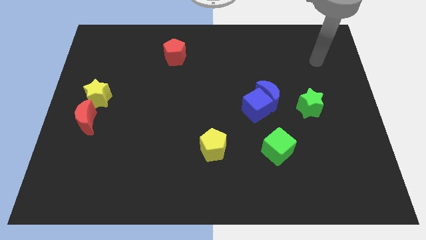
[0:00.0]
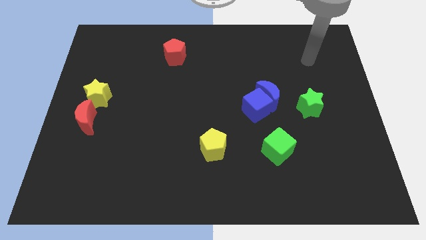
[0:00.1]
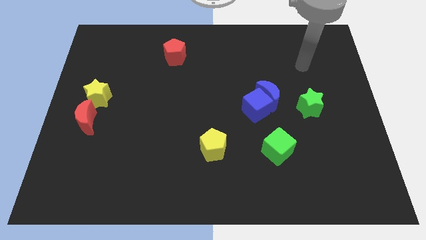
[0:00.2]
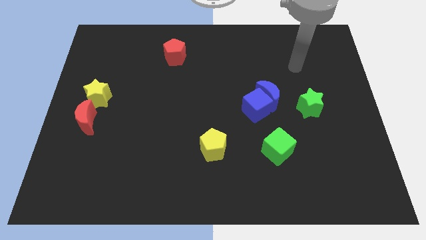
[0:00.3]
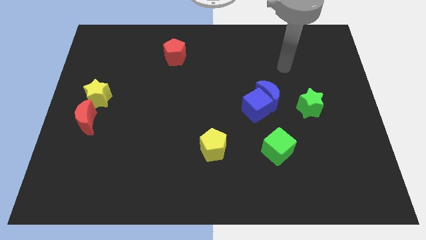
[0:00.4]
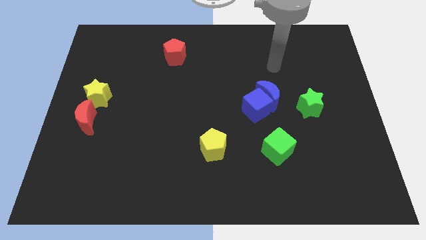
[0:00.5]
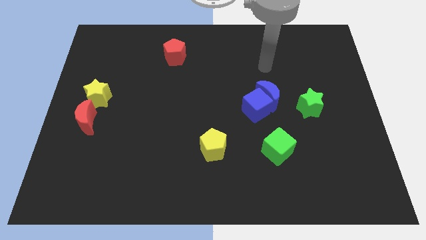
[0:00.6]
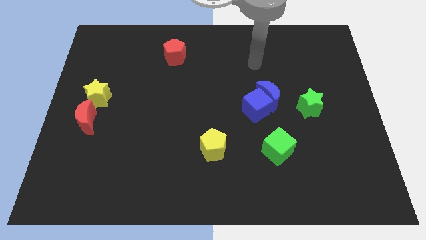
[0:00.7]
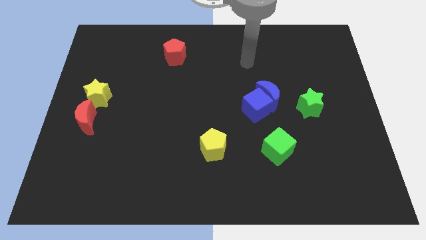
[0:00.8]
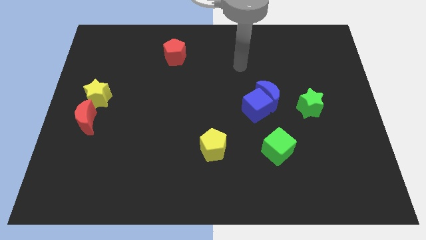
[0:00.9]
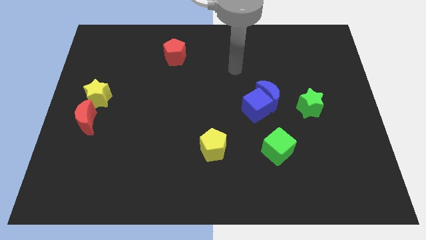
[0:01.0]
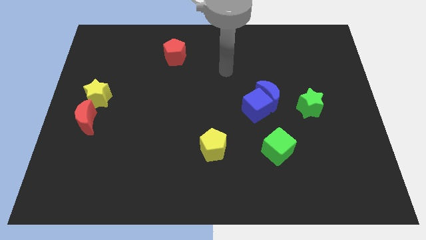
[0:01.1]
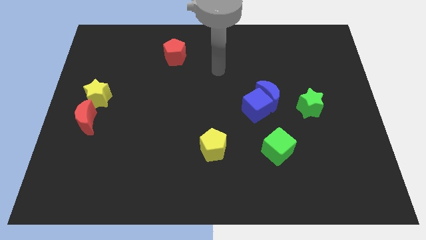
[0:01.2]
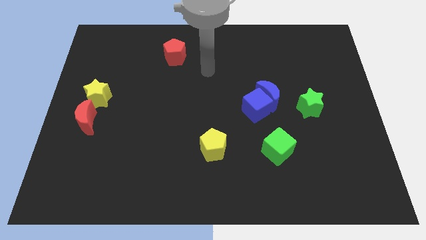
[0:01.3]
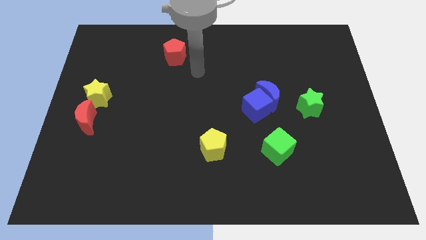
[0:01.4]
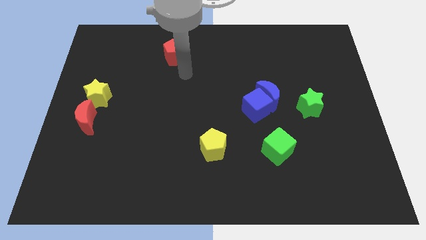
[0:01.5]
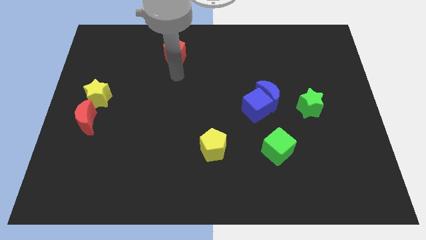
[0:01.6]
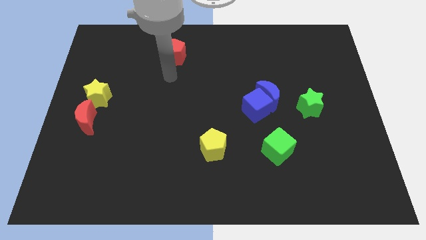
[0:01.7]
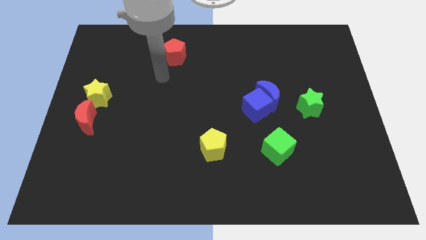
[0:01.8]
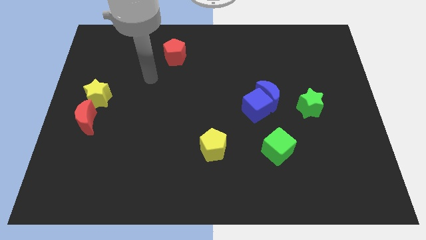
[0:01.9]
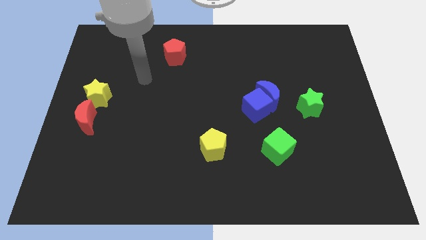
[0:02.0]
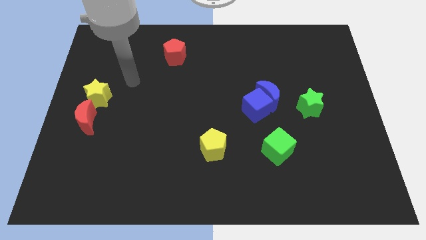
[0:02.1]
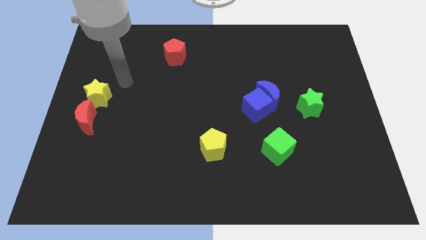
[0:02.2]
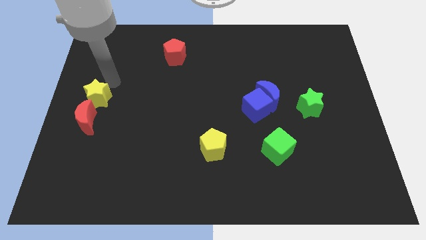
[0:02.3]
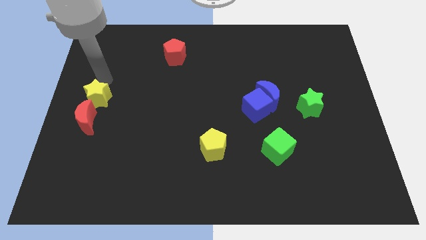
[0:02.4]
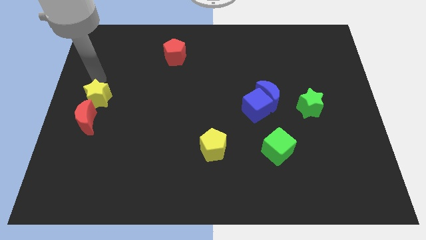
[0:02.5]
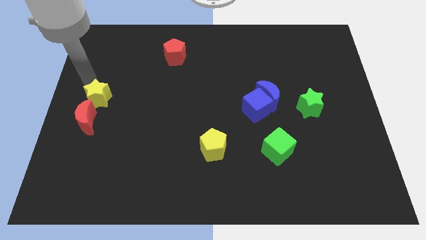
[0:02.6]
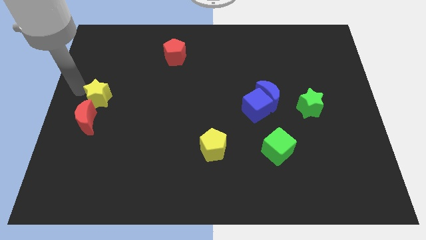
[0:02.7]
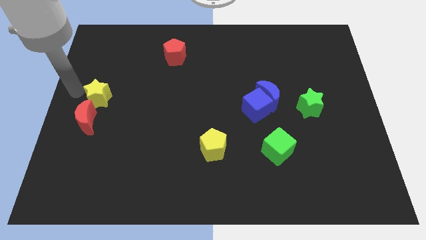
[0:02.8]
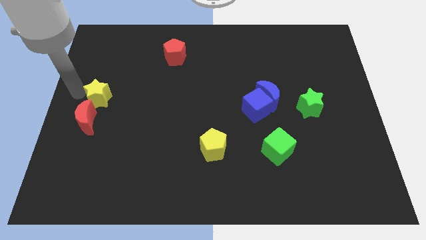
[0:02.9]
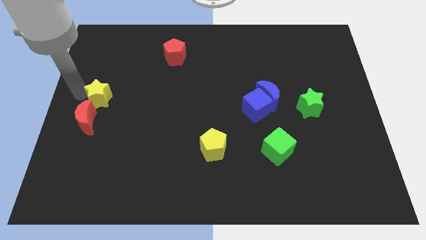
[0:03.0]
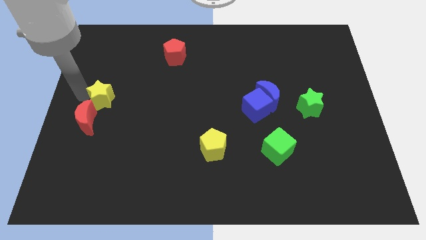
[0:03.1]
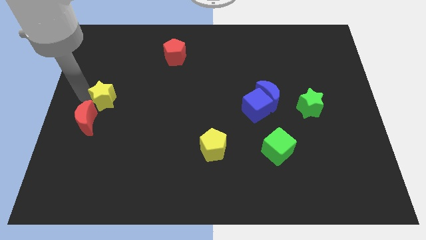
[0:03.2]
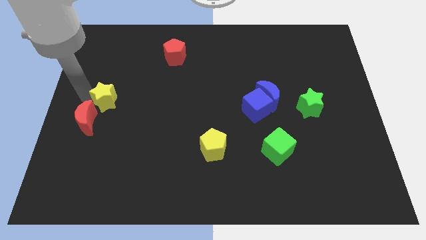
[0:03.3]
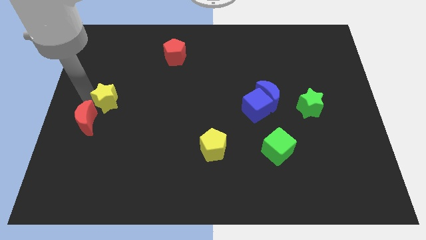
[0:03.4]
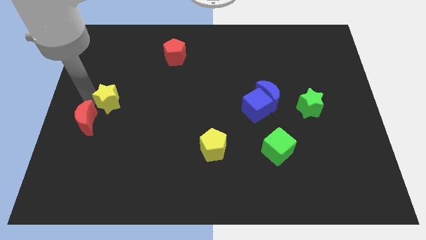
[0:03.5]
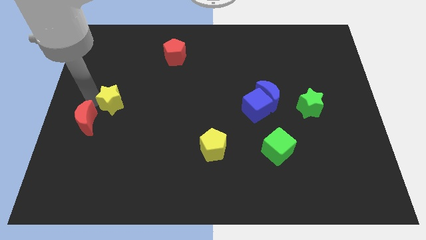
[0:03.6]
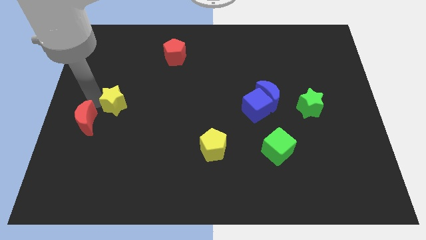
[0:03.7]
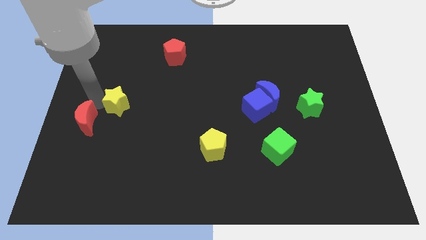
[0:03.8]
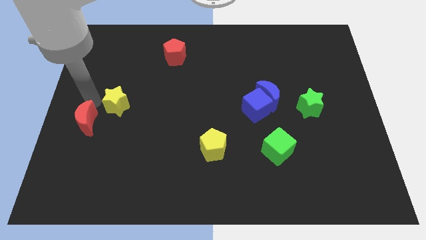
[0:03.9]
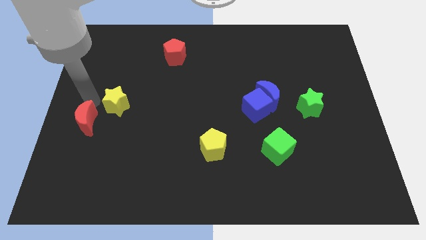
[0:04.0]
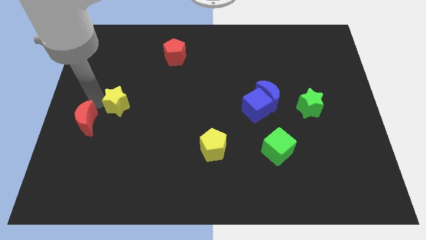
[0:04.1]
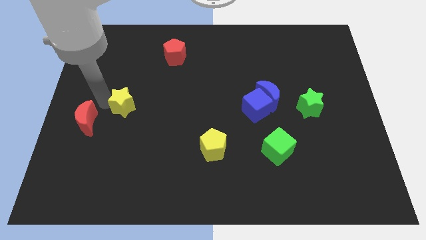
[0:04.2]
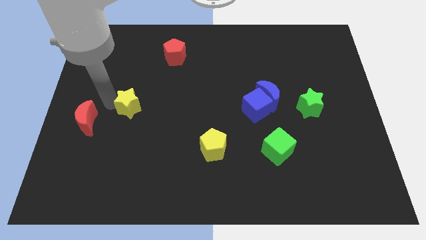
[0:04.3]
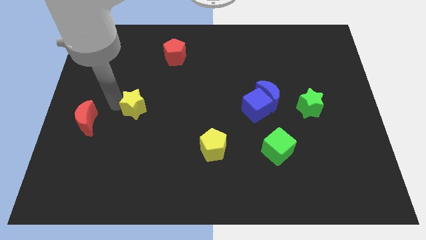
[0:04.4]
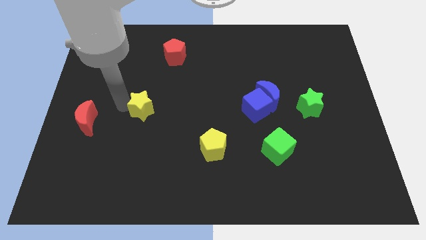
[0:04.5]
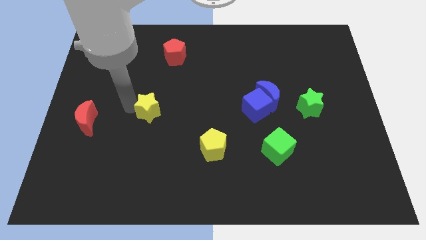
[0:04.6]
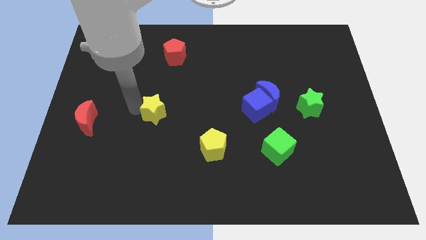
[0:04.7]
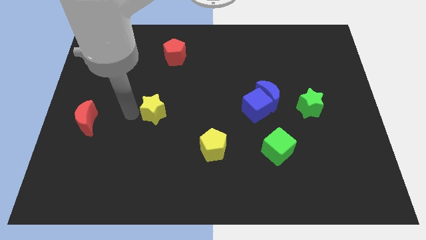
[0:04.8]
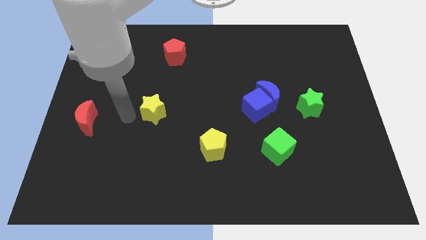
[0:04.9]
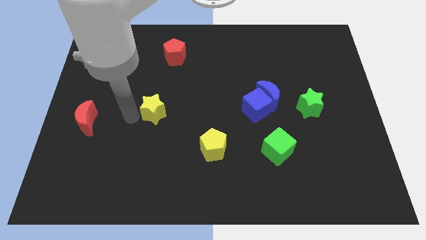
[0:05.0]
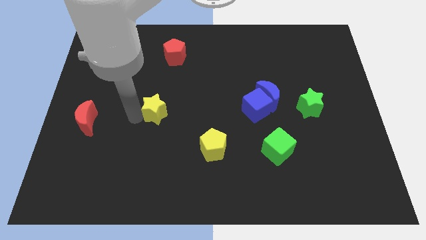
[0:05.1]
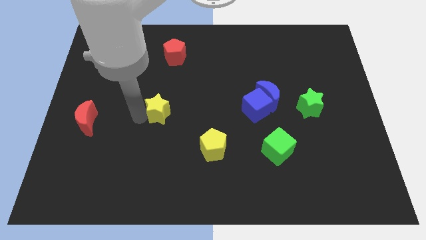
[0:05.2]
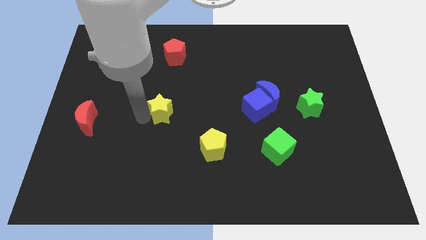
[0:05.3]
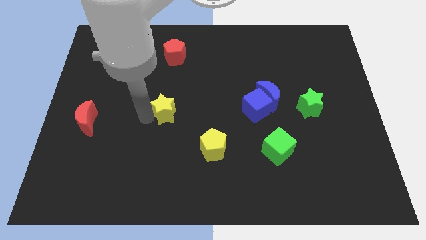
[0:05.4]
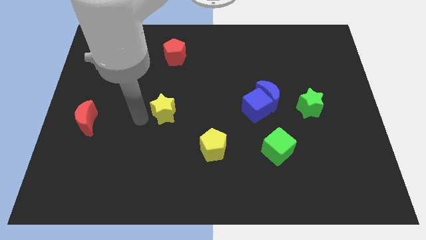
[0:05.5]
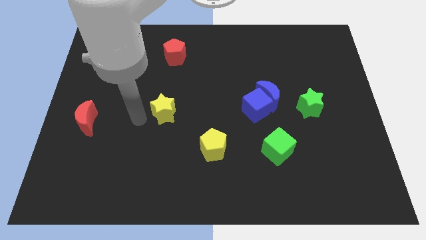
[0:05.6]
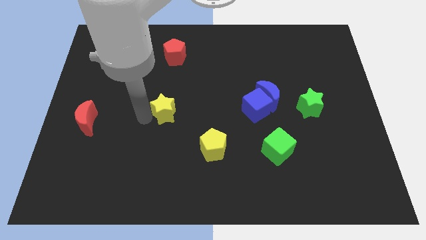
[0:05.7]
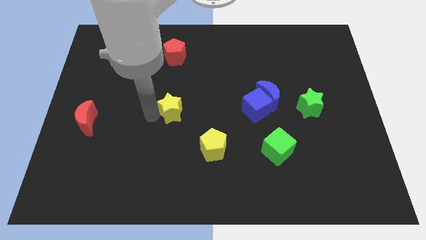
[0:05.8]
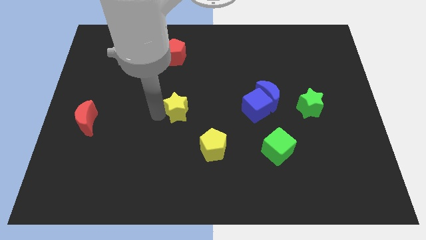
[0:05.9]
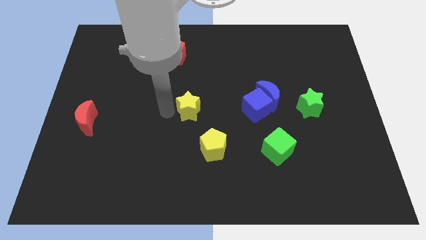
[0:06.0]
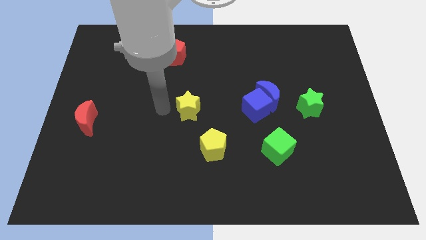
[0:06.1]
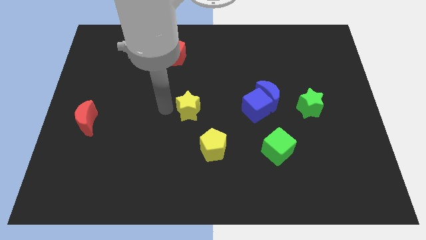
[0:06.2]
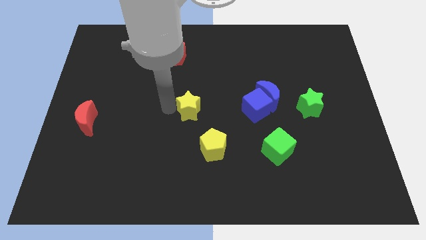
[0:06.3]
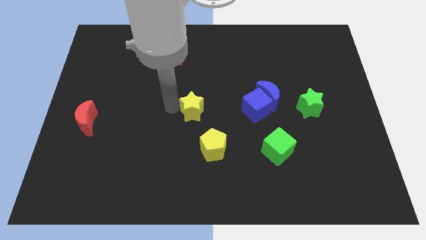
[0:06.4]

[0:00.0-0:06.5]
slide the yellow star to the top of the yellow pentagon

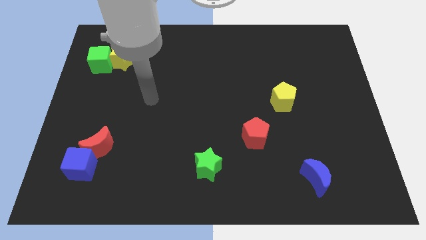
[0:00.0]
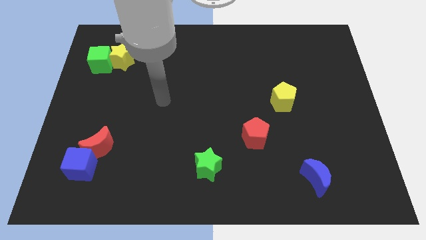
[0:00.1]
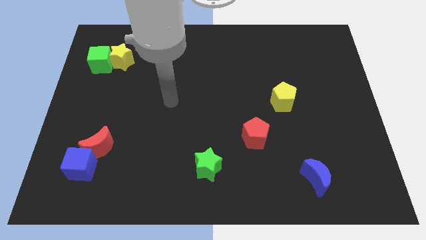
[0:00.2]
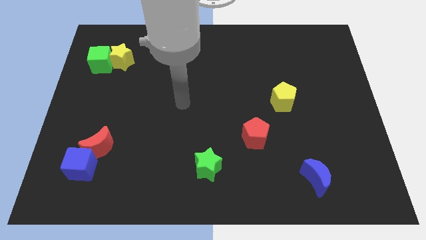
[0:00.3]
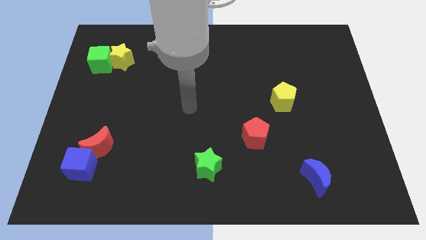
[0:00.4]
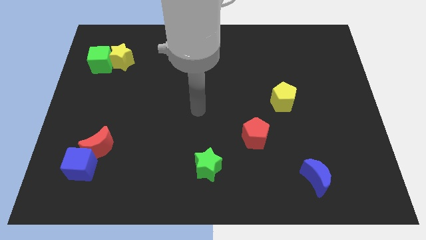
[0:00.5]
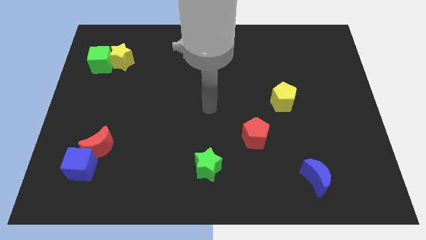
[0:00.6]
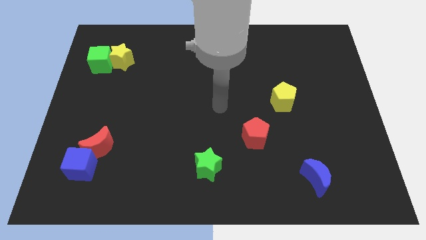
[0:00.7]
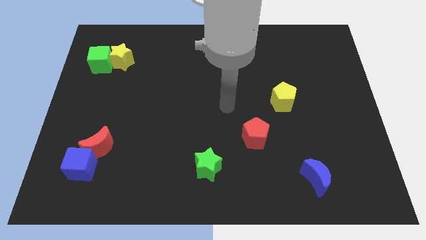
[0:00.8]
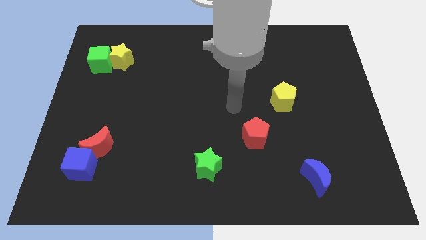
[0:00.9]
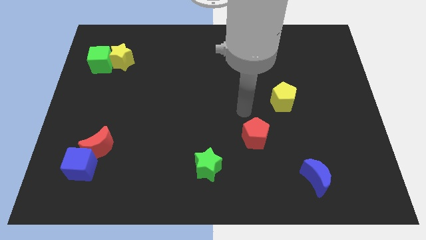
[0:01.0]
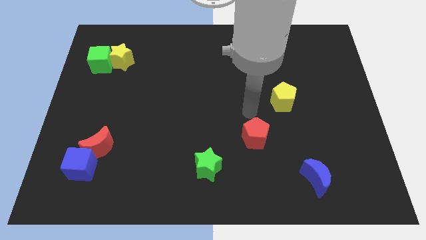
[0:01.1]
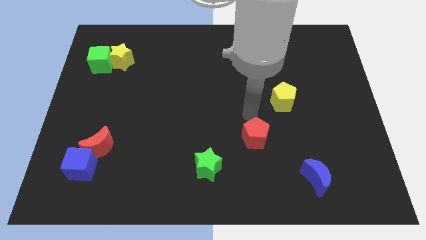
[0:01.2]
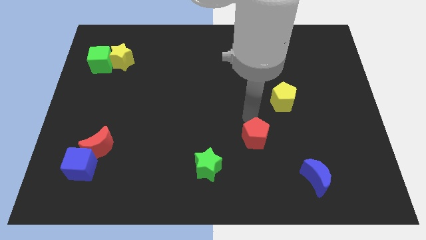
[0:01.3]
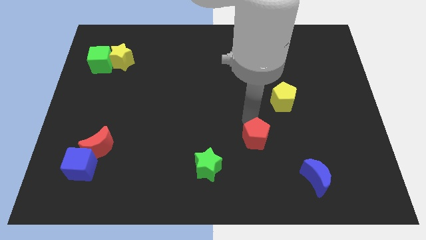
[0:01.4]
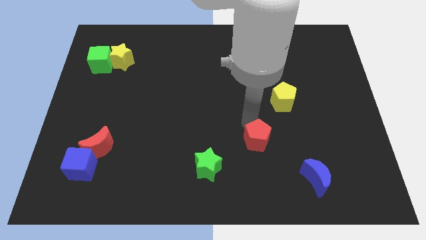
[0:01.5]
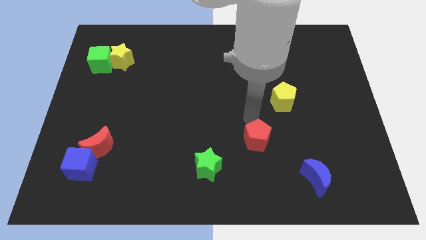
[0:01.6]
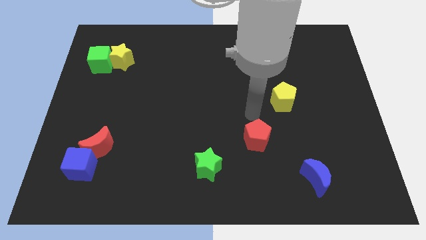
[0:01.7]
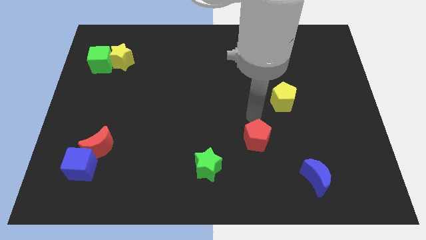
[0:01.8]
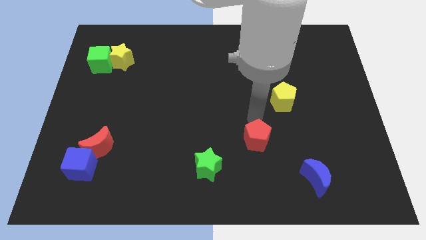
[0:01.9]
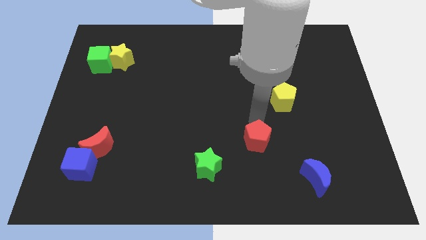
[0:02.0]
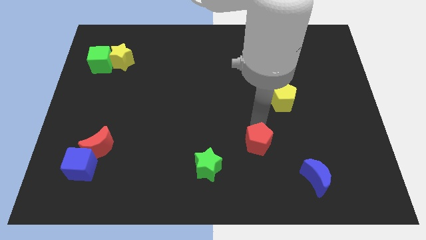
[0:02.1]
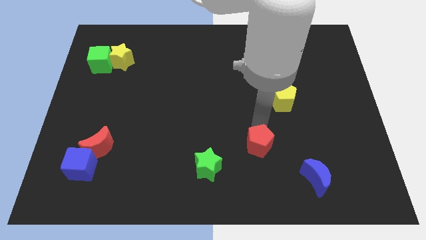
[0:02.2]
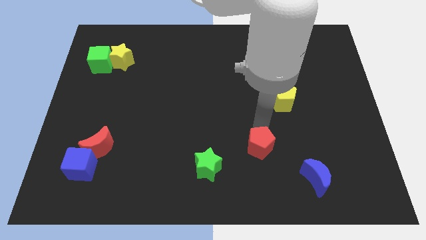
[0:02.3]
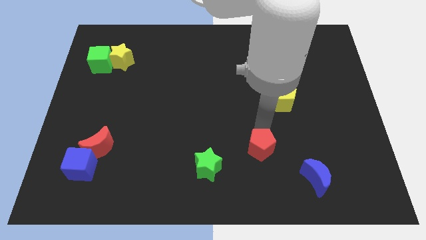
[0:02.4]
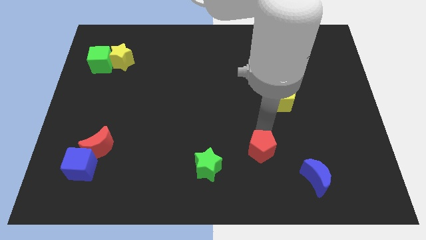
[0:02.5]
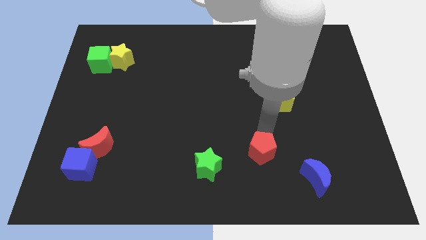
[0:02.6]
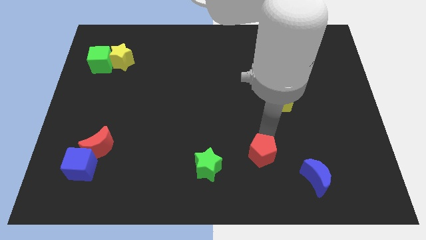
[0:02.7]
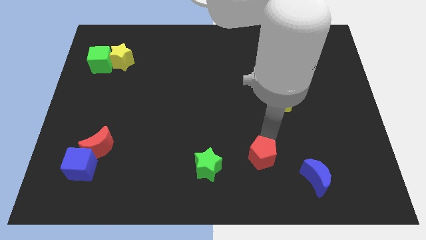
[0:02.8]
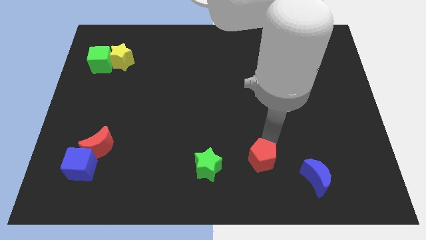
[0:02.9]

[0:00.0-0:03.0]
slide the red pentagon to the left of the blue moon
